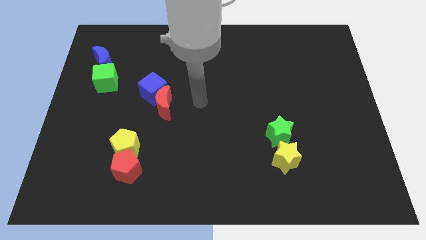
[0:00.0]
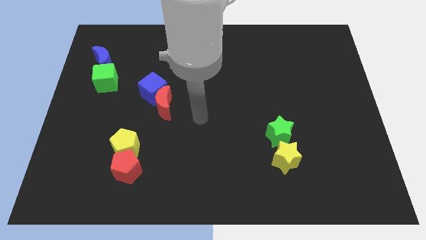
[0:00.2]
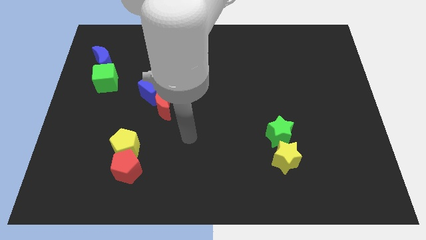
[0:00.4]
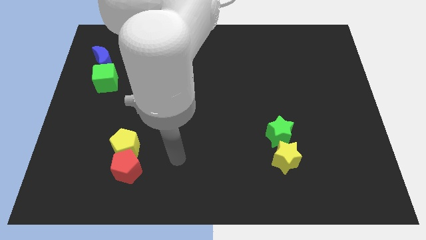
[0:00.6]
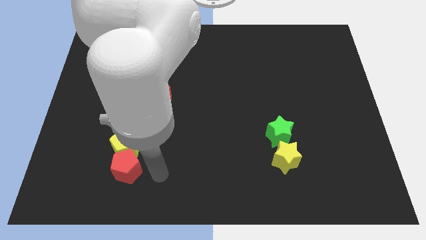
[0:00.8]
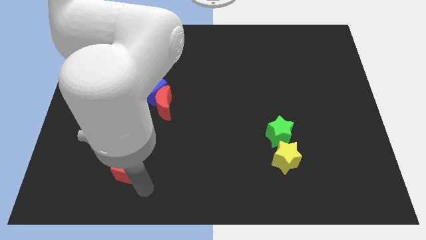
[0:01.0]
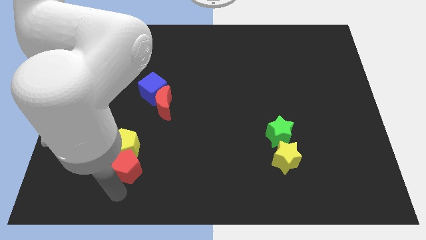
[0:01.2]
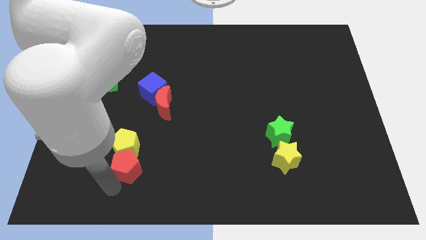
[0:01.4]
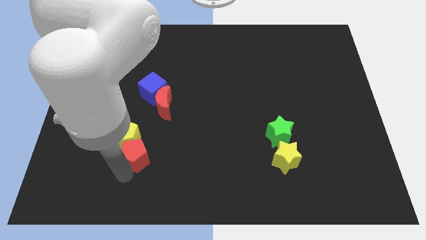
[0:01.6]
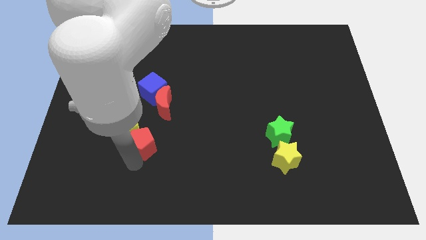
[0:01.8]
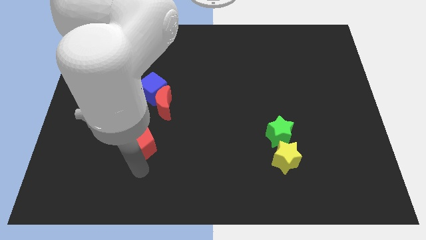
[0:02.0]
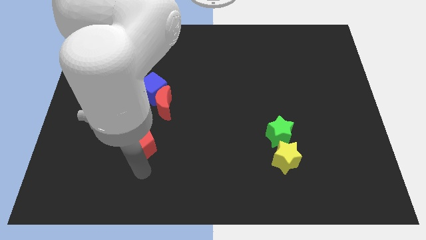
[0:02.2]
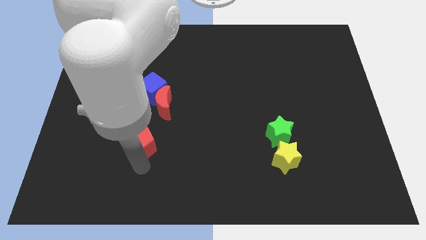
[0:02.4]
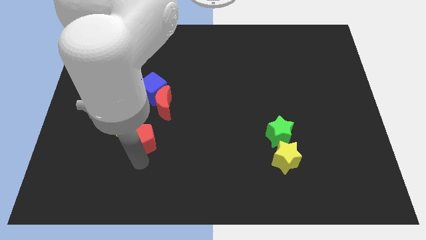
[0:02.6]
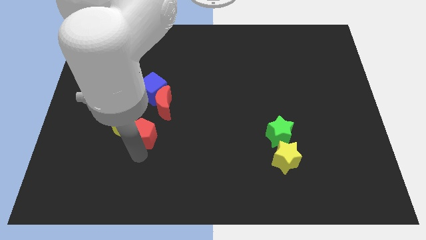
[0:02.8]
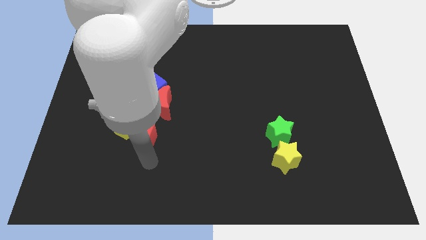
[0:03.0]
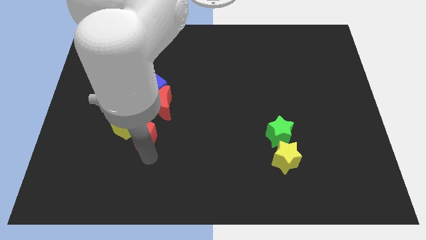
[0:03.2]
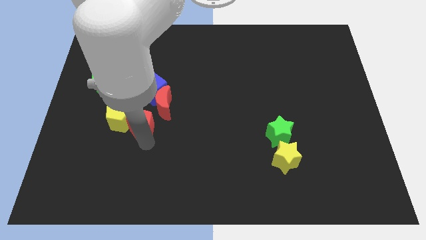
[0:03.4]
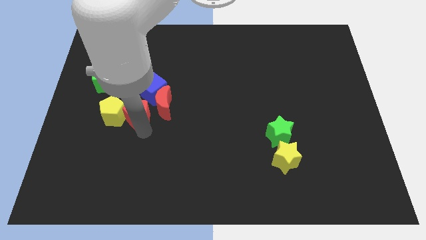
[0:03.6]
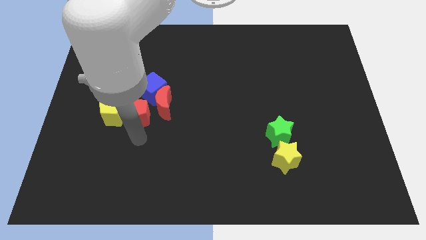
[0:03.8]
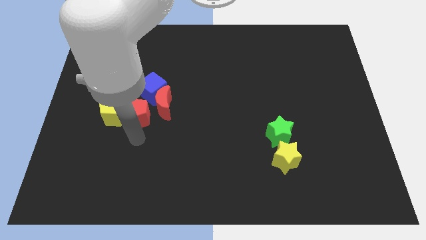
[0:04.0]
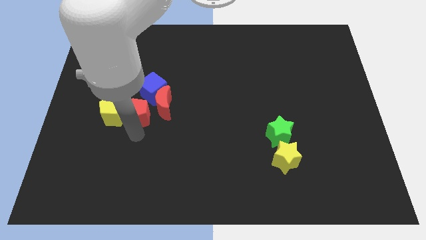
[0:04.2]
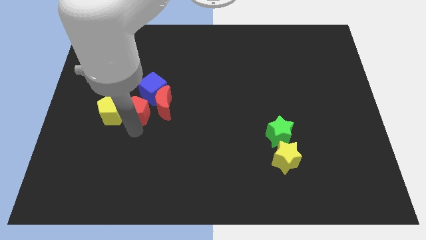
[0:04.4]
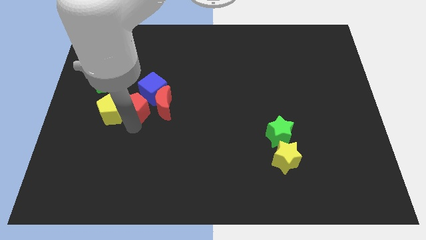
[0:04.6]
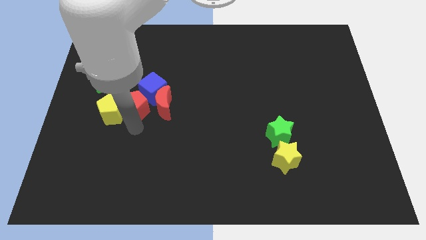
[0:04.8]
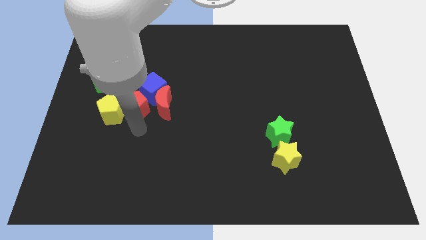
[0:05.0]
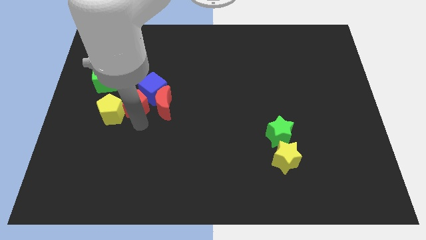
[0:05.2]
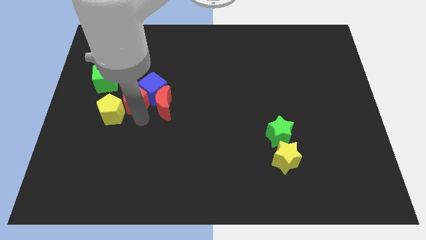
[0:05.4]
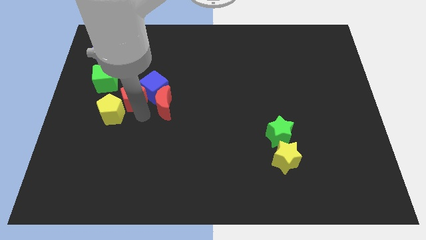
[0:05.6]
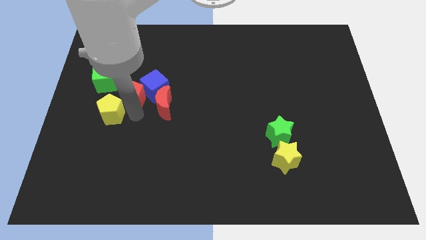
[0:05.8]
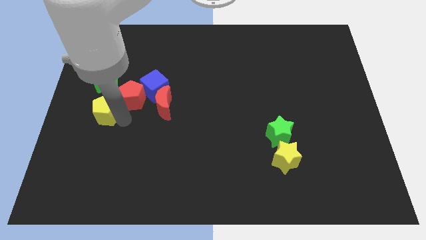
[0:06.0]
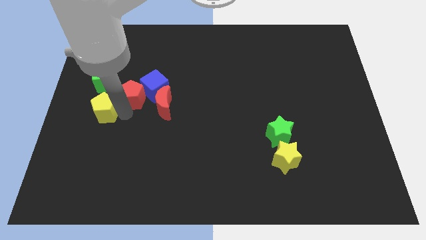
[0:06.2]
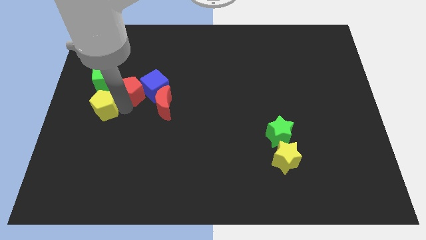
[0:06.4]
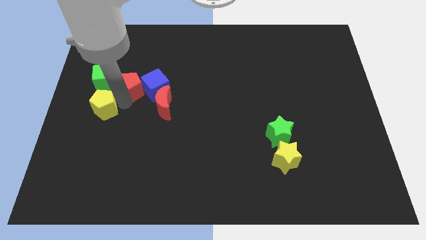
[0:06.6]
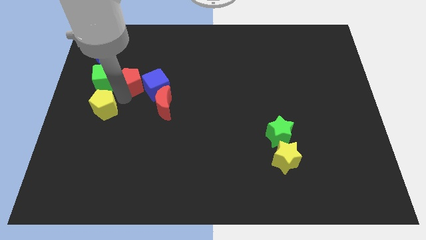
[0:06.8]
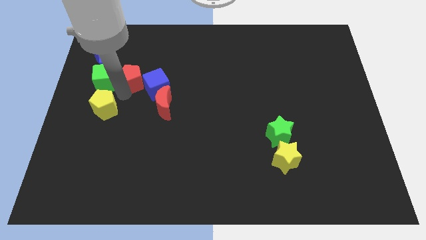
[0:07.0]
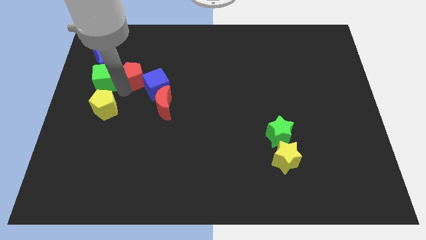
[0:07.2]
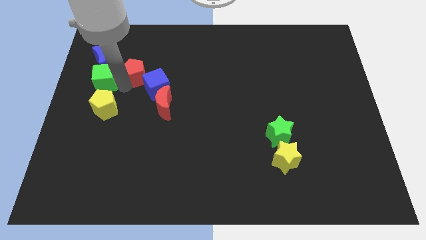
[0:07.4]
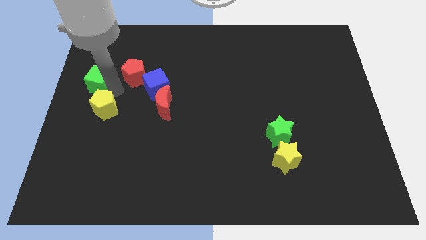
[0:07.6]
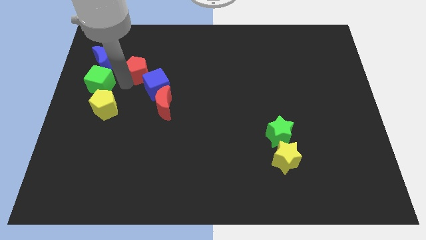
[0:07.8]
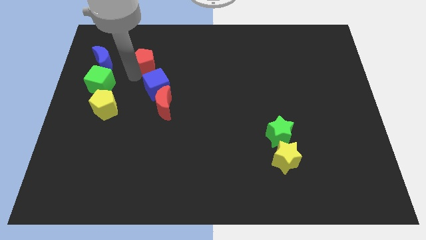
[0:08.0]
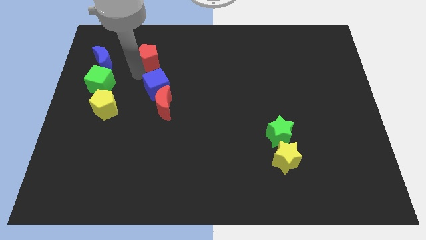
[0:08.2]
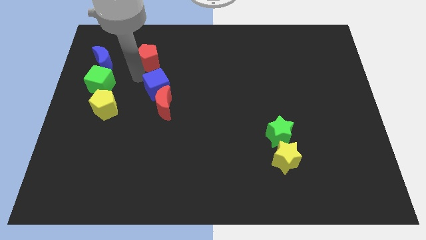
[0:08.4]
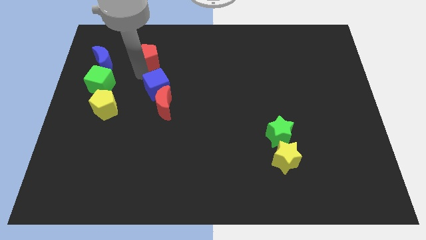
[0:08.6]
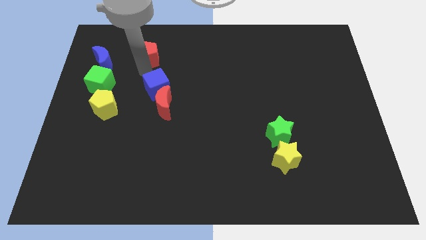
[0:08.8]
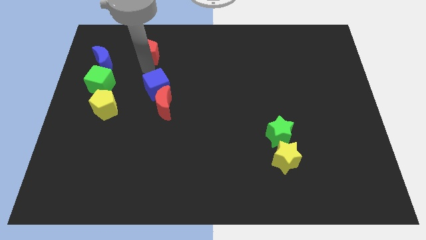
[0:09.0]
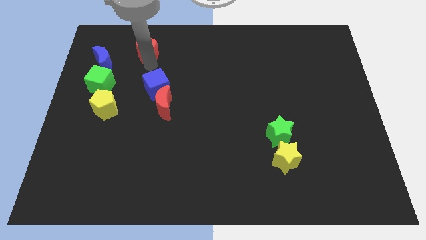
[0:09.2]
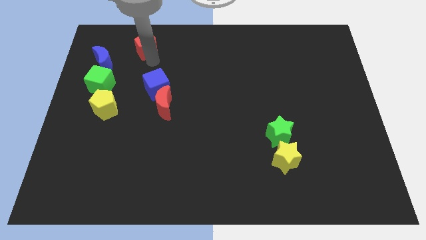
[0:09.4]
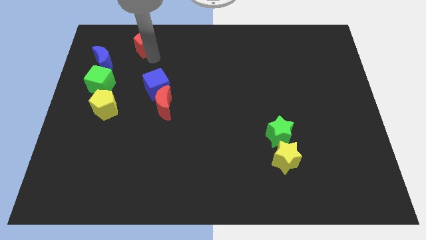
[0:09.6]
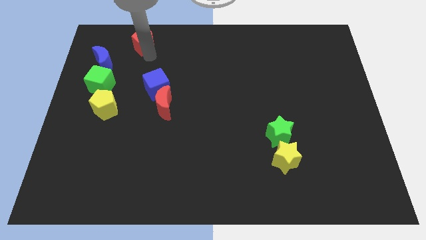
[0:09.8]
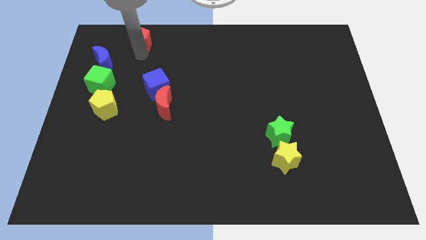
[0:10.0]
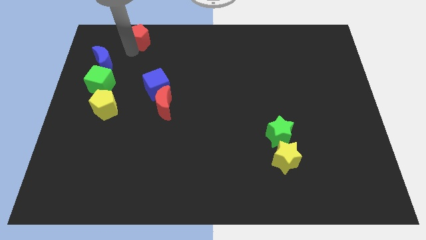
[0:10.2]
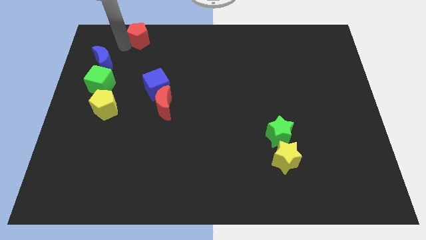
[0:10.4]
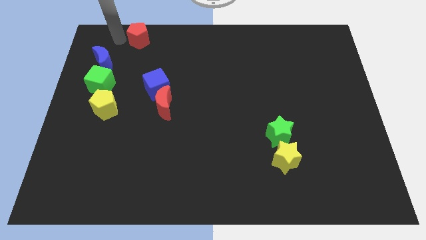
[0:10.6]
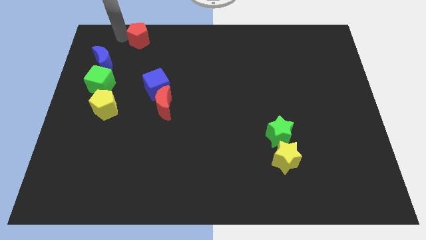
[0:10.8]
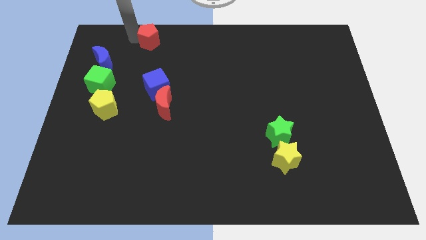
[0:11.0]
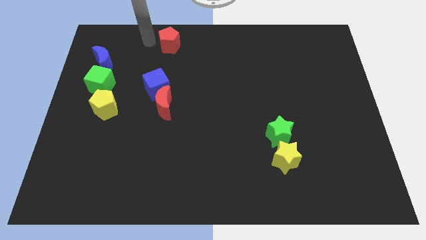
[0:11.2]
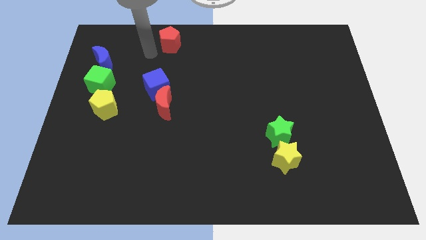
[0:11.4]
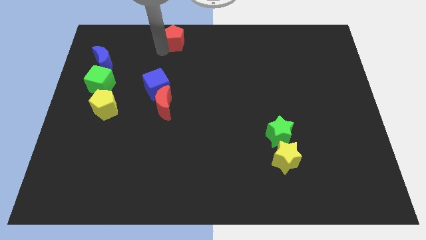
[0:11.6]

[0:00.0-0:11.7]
move the red pentagon to the towards your base

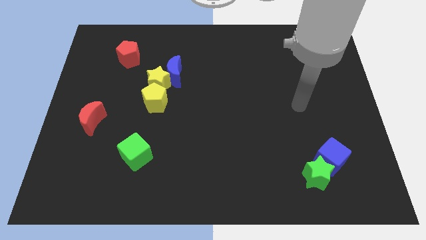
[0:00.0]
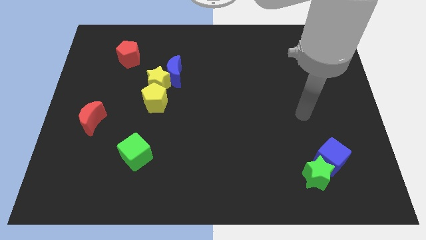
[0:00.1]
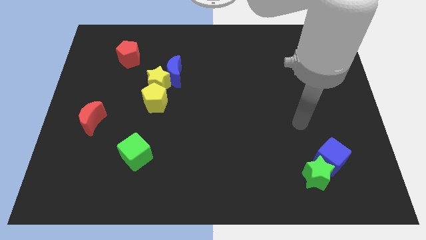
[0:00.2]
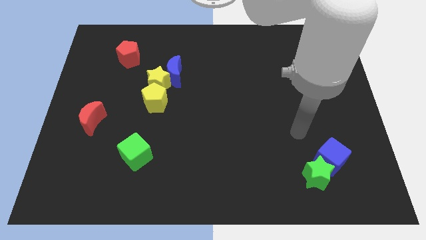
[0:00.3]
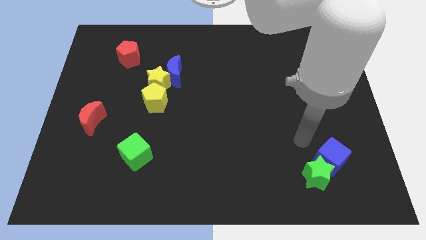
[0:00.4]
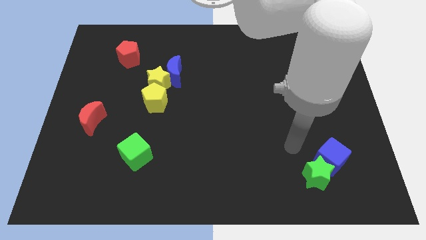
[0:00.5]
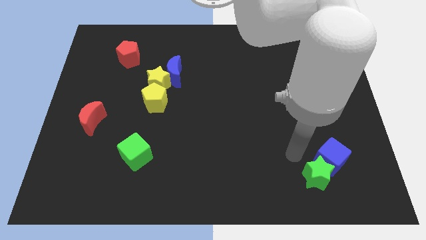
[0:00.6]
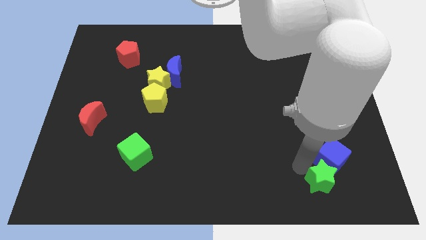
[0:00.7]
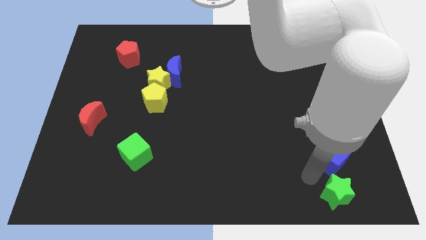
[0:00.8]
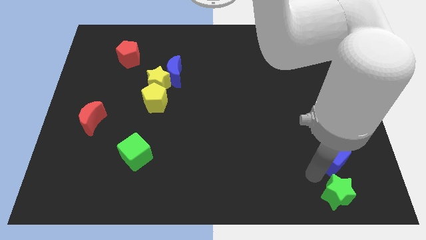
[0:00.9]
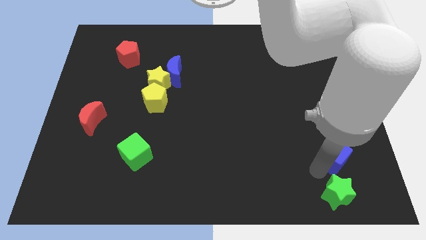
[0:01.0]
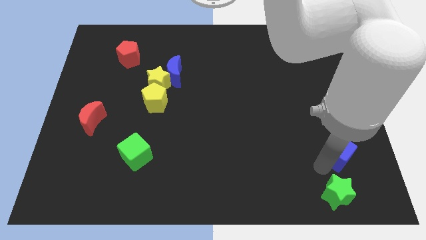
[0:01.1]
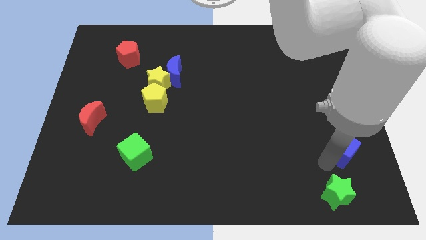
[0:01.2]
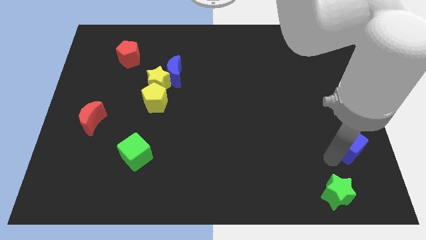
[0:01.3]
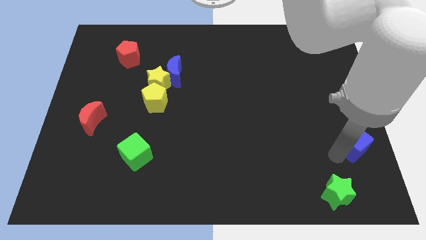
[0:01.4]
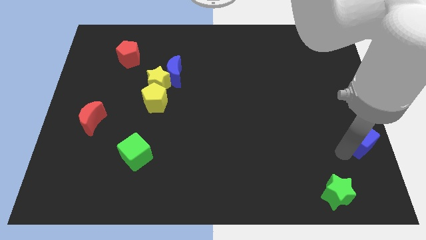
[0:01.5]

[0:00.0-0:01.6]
slide the blue cube to the right side
